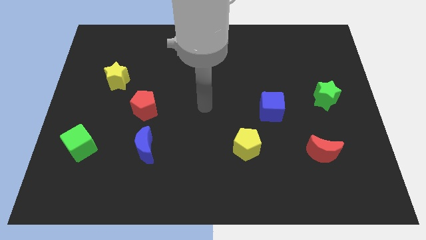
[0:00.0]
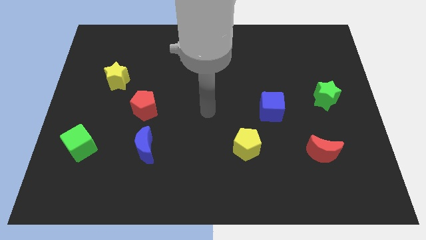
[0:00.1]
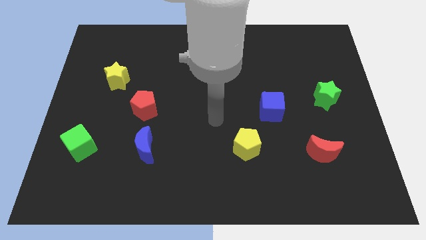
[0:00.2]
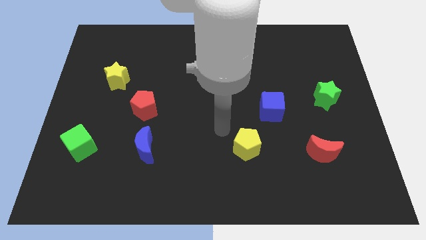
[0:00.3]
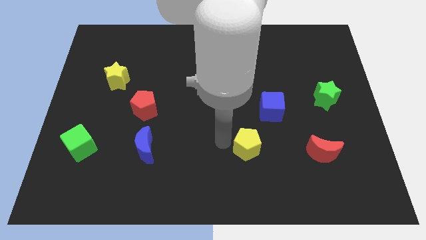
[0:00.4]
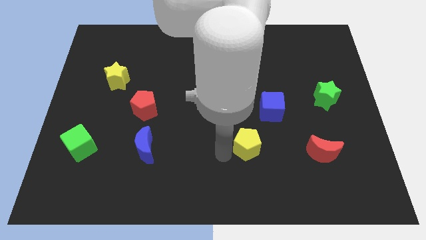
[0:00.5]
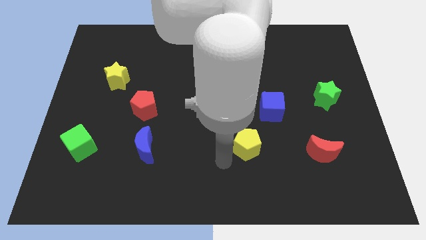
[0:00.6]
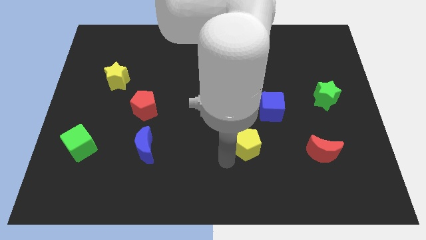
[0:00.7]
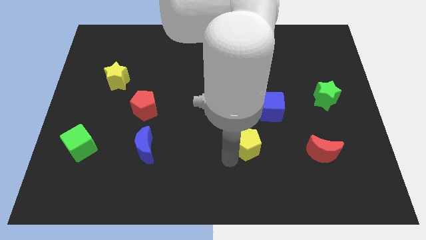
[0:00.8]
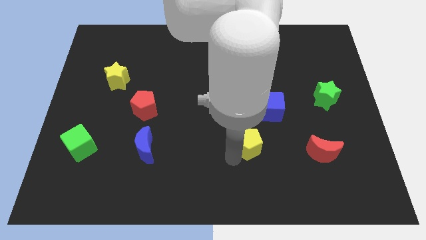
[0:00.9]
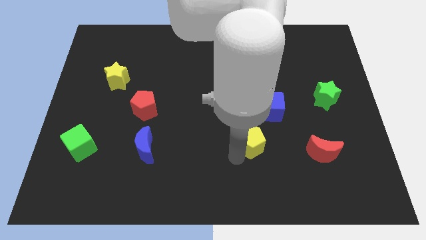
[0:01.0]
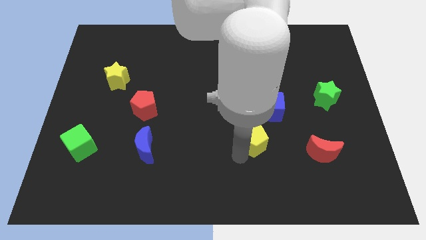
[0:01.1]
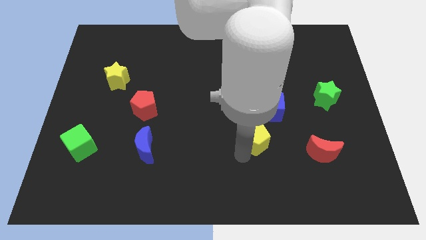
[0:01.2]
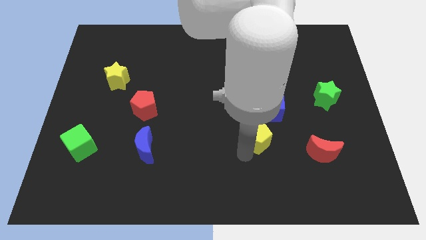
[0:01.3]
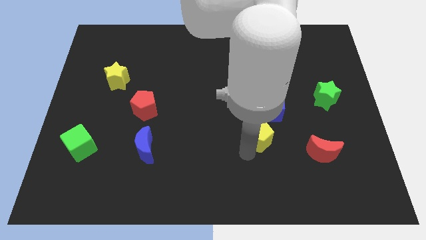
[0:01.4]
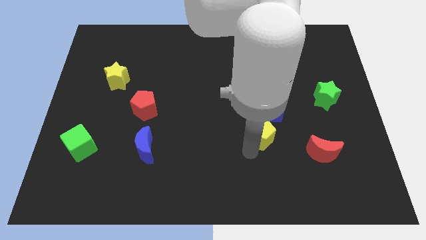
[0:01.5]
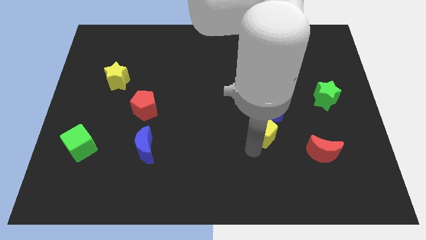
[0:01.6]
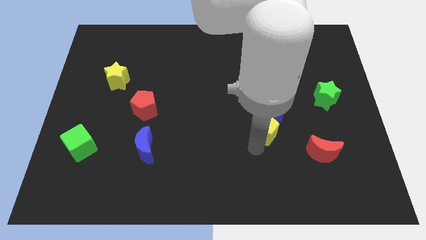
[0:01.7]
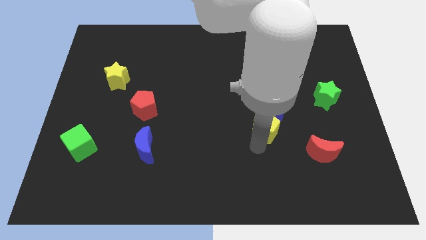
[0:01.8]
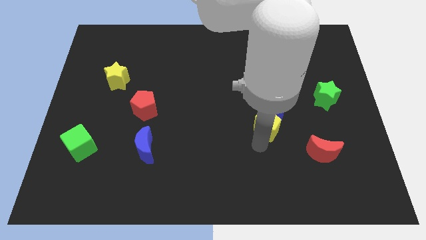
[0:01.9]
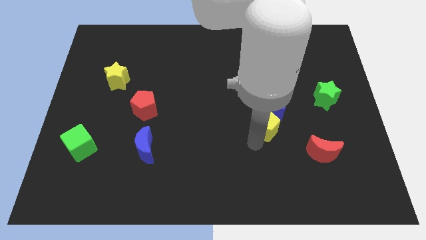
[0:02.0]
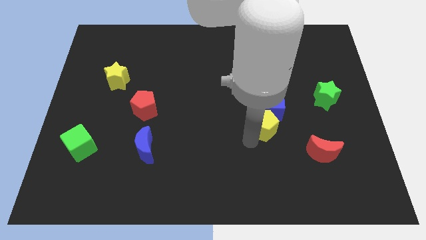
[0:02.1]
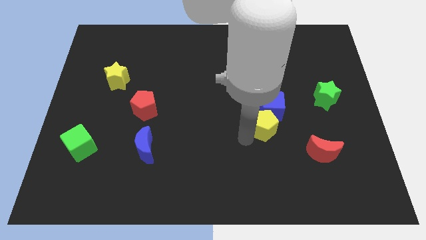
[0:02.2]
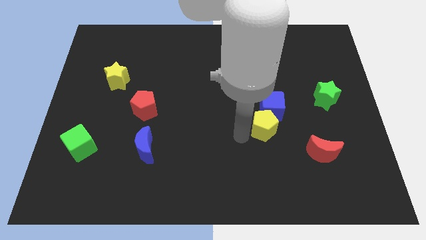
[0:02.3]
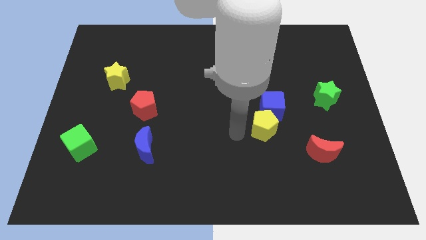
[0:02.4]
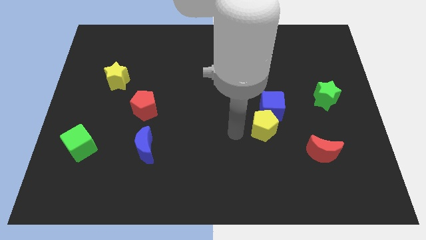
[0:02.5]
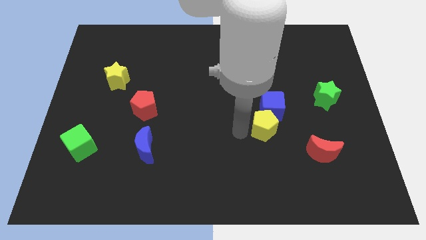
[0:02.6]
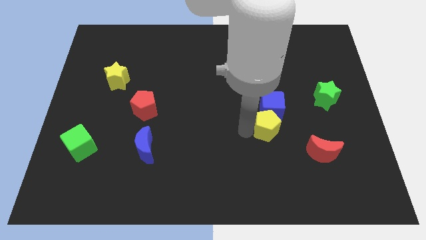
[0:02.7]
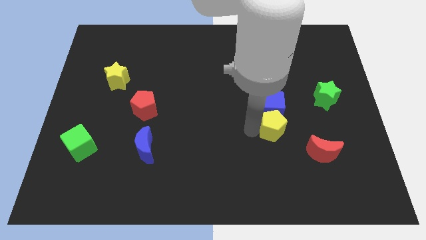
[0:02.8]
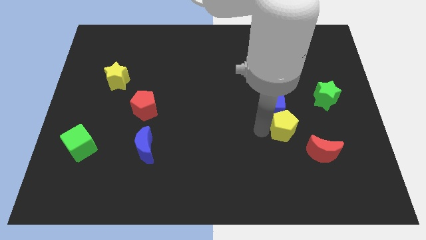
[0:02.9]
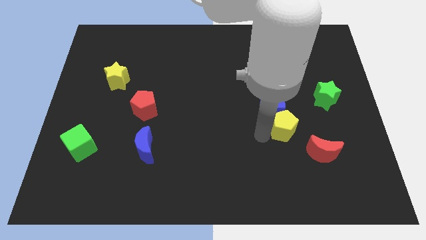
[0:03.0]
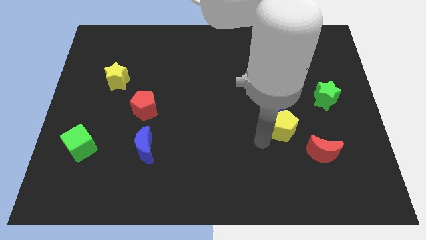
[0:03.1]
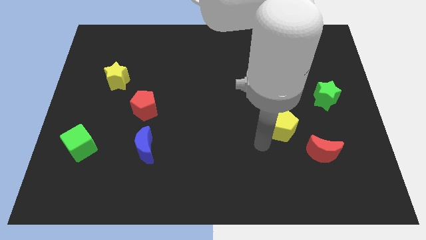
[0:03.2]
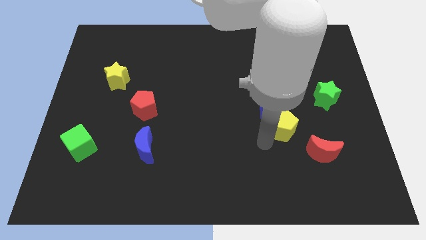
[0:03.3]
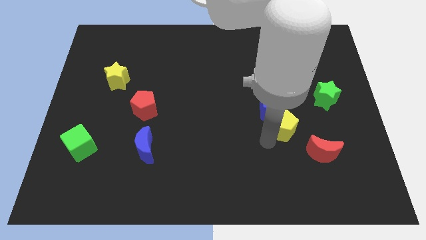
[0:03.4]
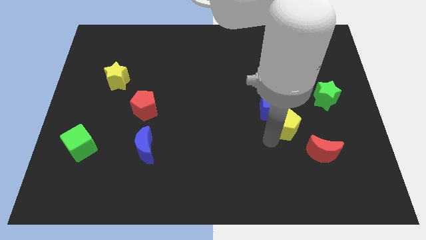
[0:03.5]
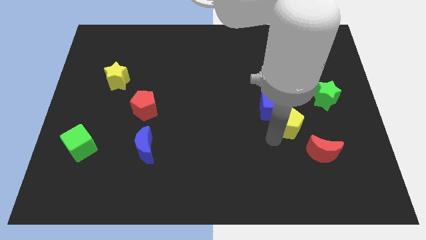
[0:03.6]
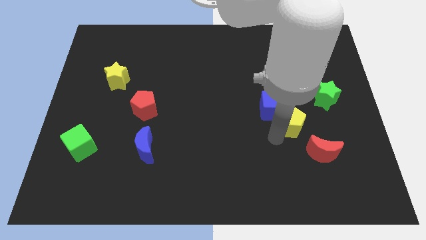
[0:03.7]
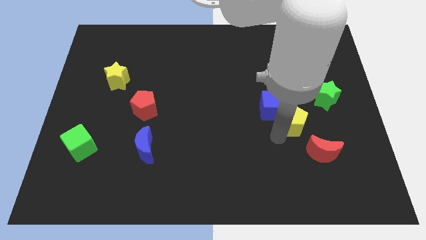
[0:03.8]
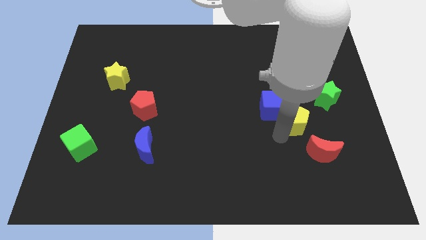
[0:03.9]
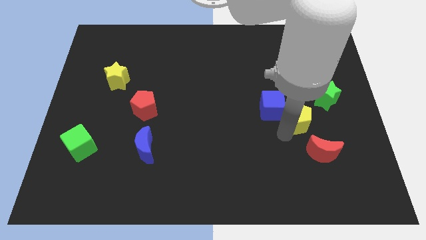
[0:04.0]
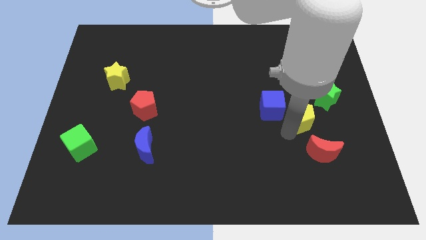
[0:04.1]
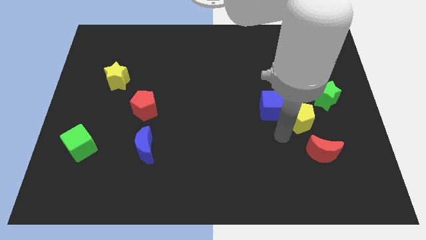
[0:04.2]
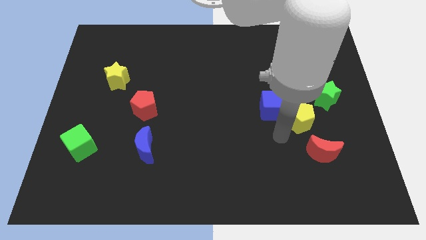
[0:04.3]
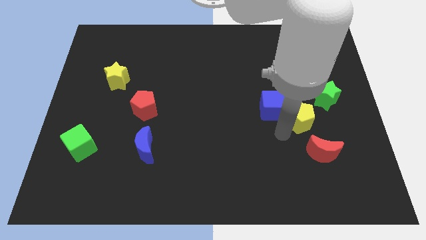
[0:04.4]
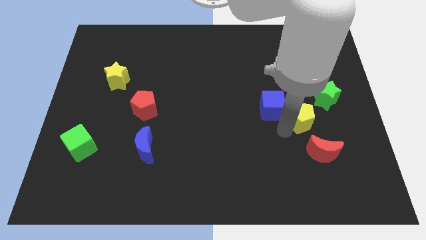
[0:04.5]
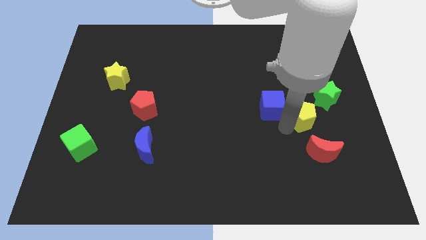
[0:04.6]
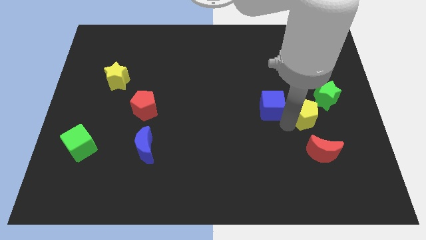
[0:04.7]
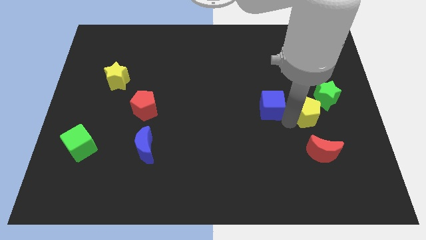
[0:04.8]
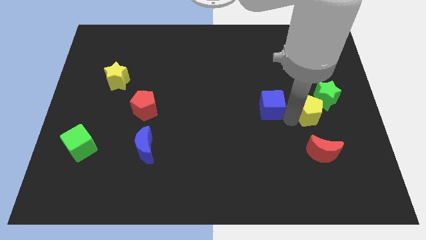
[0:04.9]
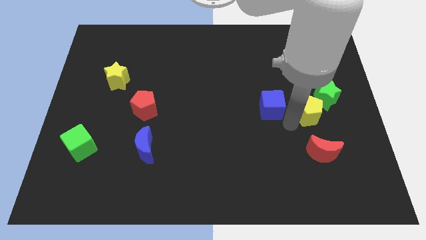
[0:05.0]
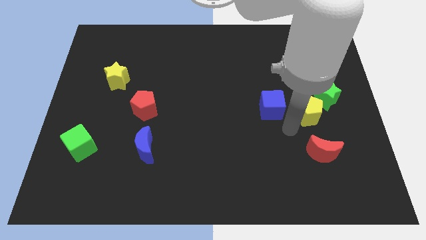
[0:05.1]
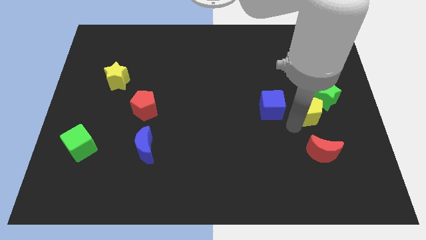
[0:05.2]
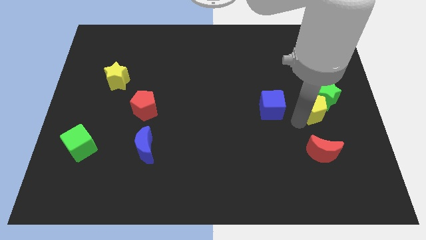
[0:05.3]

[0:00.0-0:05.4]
slide the yellow pentagon next to the green star

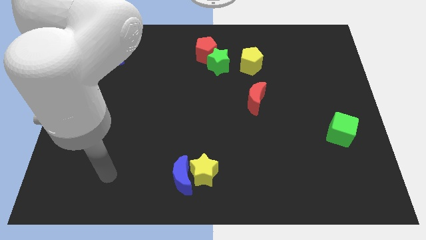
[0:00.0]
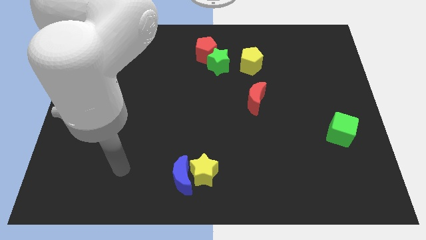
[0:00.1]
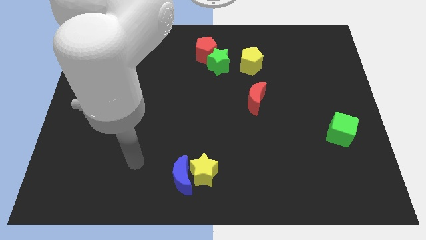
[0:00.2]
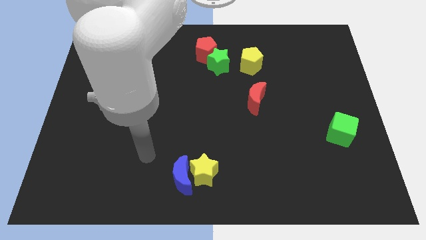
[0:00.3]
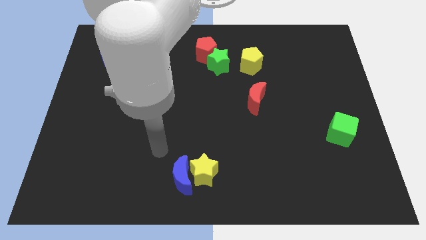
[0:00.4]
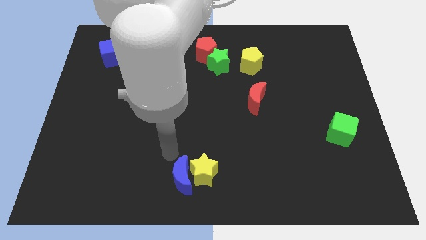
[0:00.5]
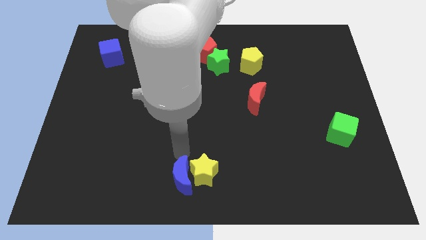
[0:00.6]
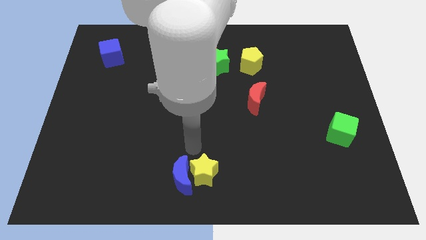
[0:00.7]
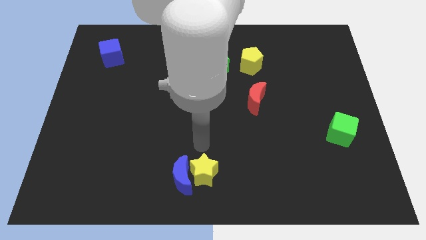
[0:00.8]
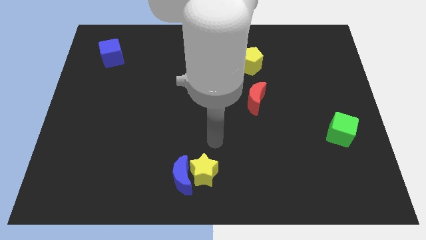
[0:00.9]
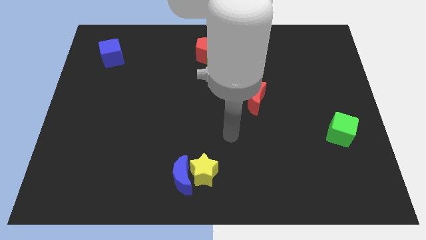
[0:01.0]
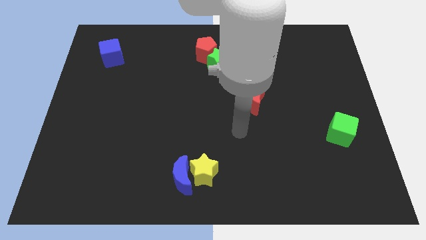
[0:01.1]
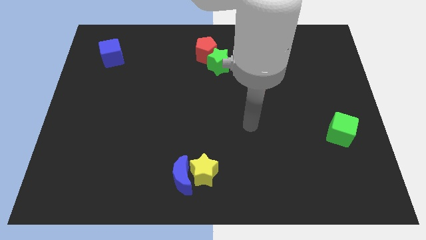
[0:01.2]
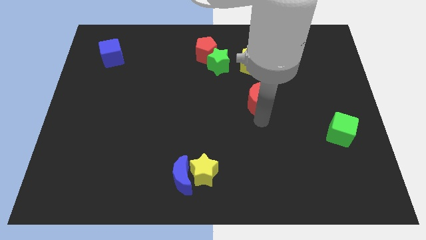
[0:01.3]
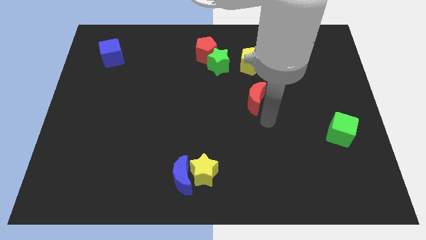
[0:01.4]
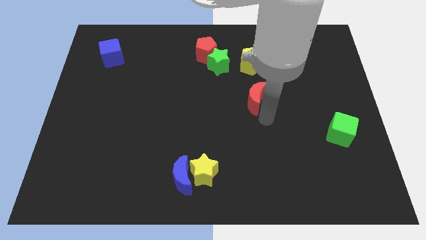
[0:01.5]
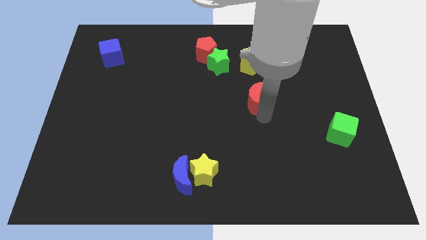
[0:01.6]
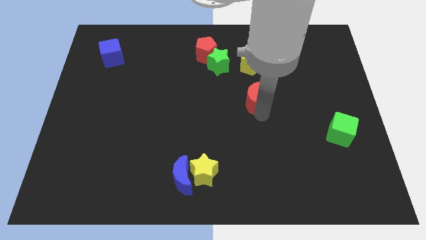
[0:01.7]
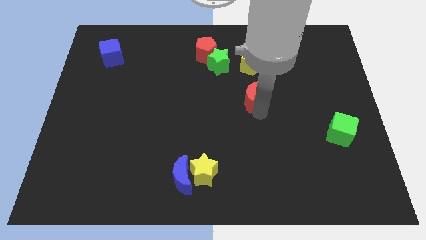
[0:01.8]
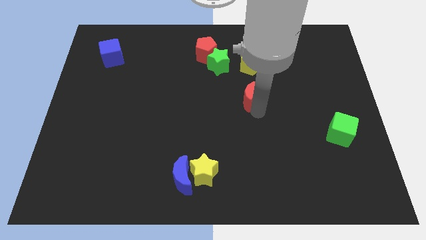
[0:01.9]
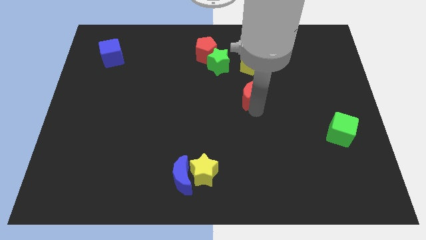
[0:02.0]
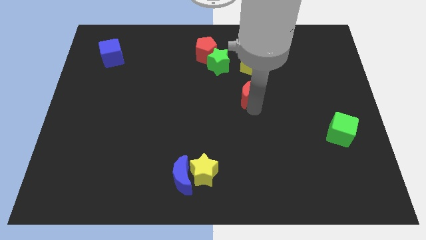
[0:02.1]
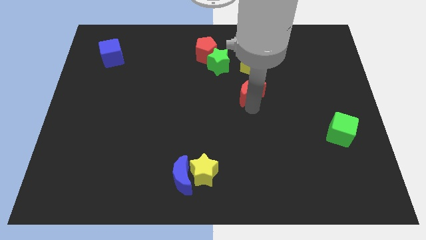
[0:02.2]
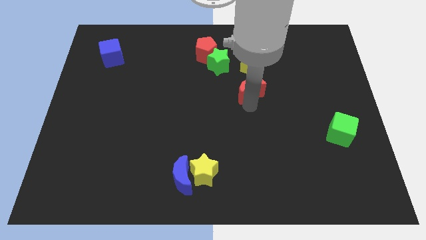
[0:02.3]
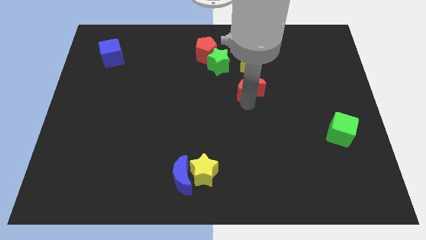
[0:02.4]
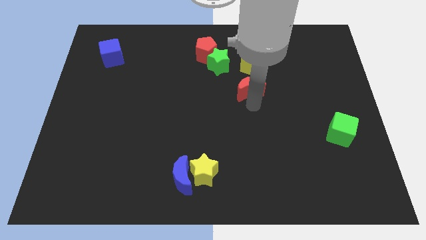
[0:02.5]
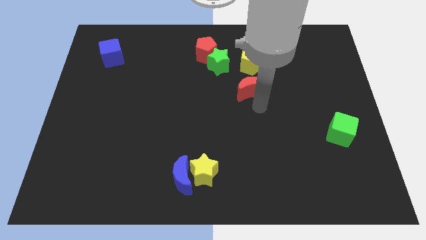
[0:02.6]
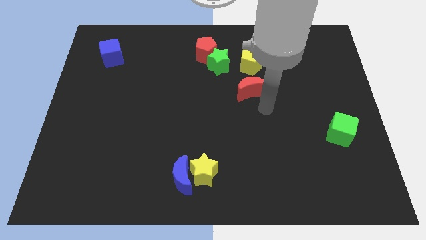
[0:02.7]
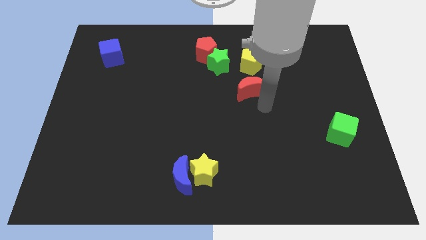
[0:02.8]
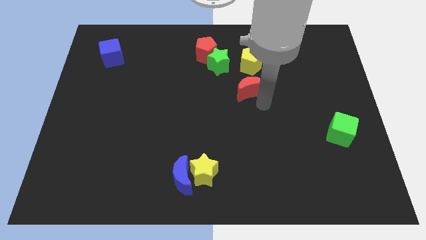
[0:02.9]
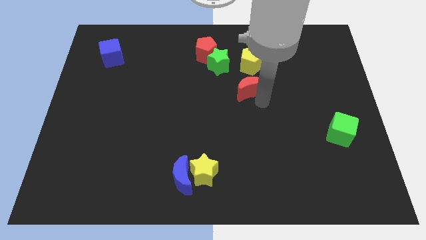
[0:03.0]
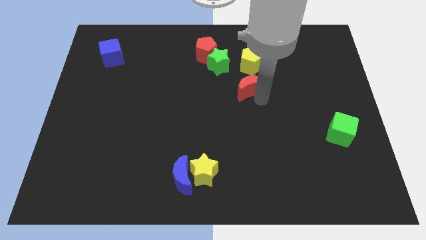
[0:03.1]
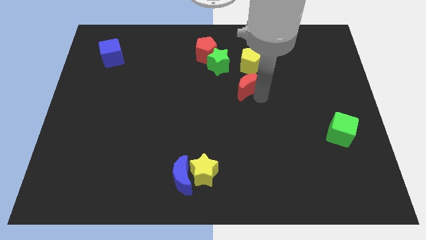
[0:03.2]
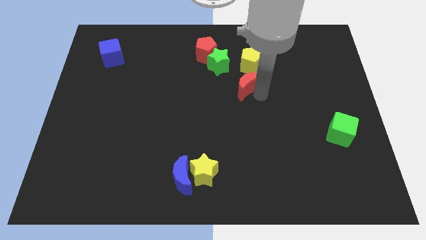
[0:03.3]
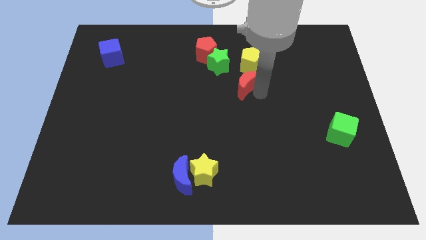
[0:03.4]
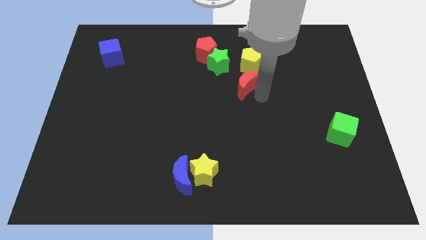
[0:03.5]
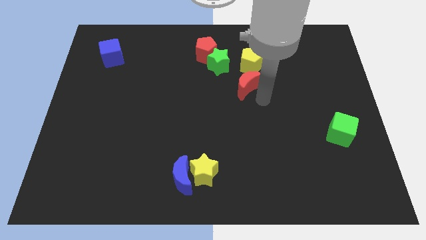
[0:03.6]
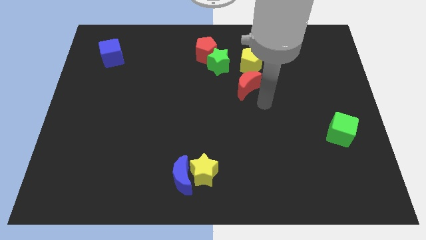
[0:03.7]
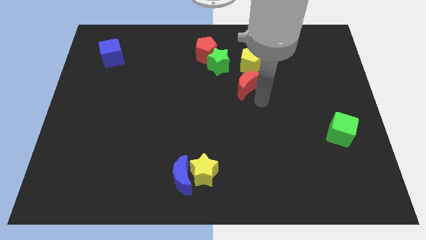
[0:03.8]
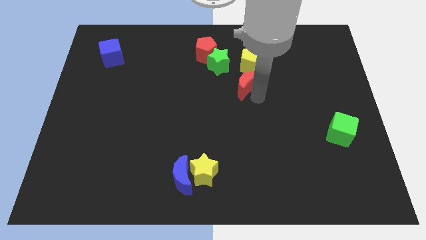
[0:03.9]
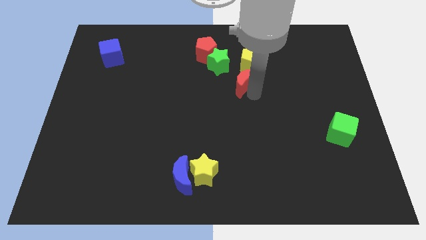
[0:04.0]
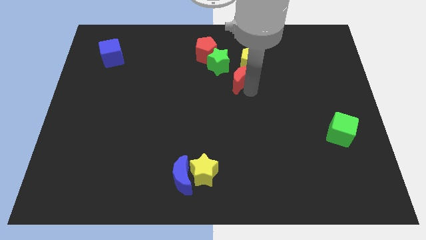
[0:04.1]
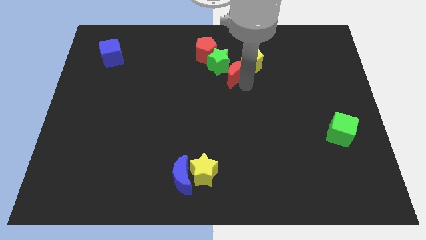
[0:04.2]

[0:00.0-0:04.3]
put the red moon close to the green star
